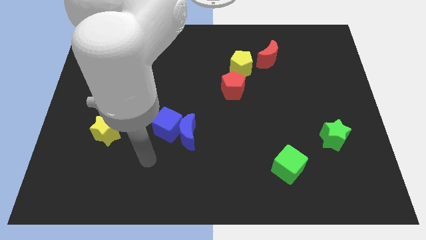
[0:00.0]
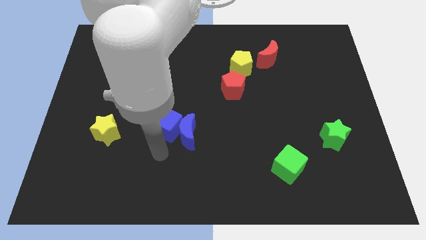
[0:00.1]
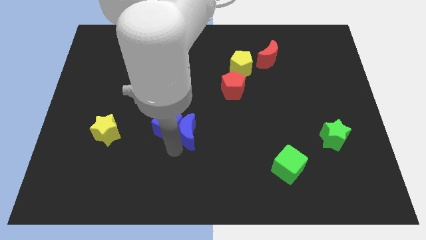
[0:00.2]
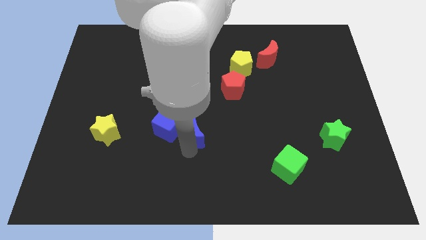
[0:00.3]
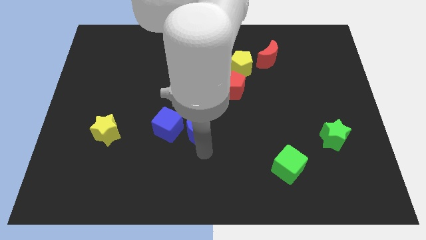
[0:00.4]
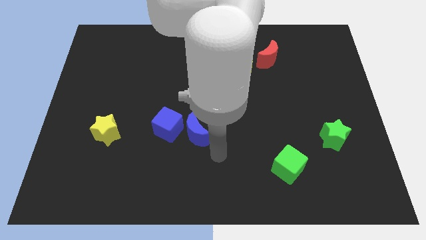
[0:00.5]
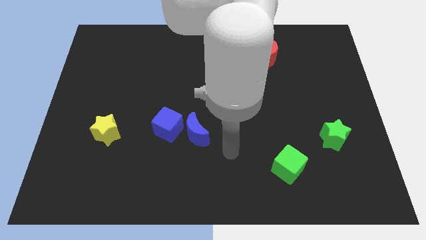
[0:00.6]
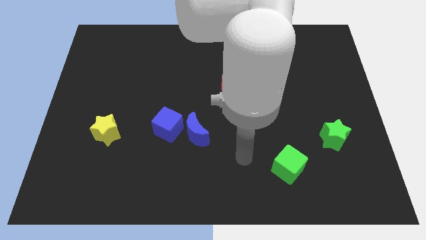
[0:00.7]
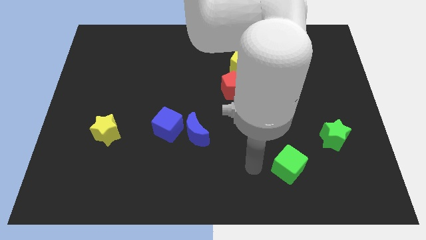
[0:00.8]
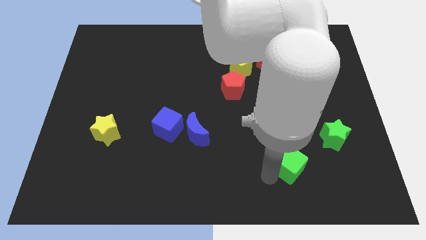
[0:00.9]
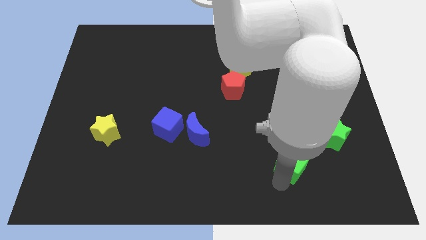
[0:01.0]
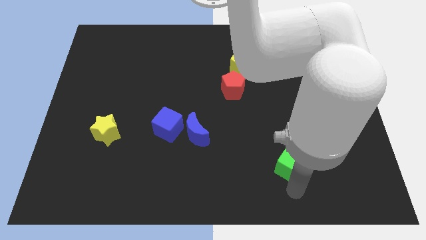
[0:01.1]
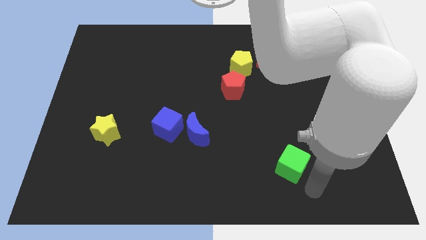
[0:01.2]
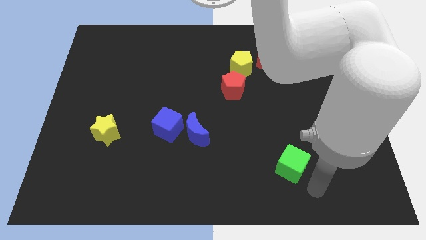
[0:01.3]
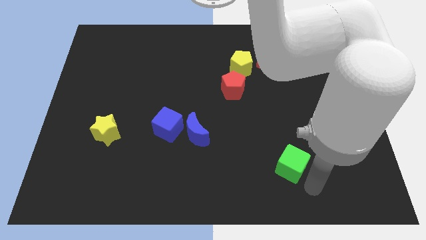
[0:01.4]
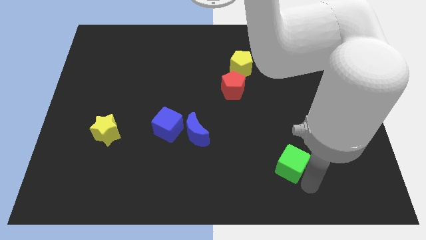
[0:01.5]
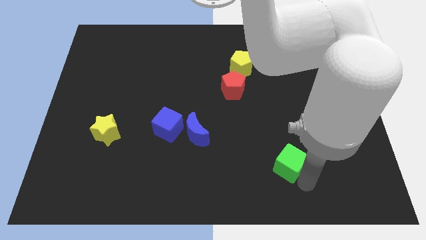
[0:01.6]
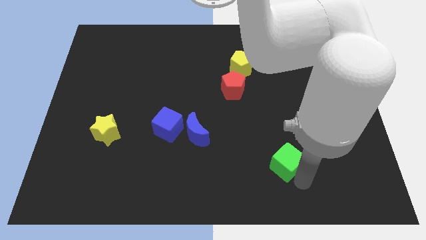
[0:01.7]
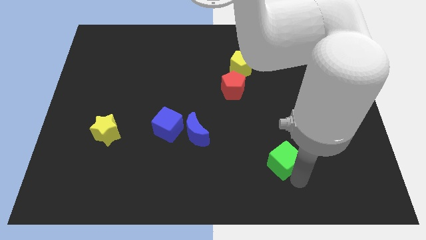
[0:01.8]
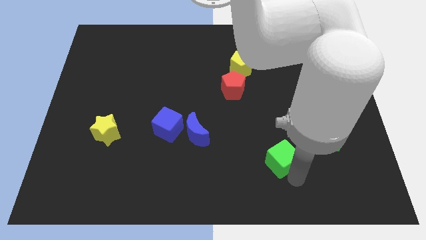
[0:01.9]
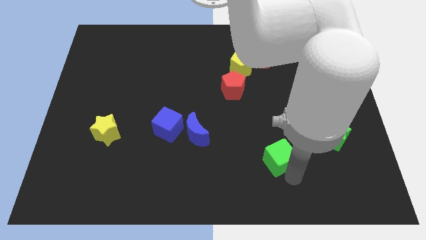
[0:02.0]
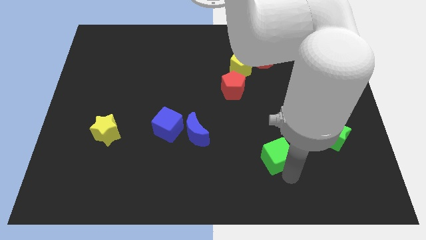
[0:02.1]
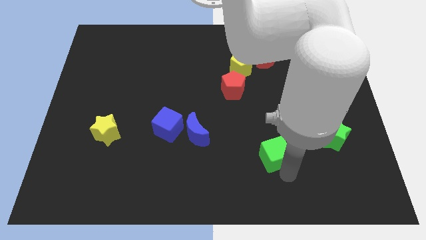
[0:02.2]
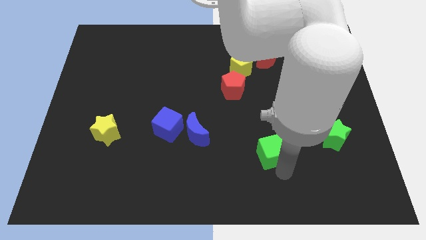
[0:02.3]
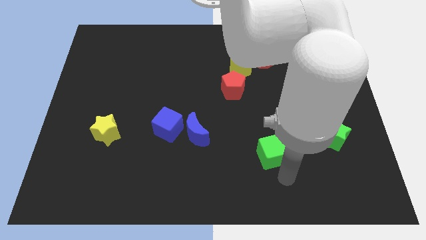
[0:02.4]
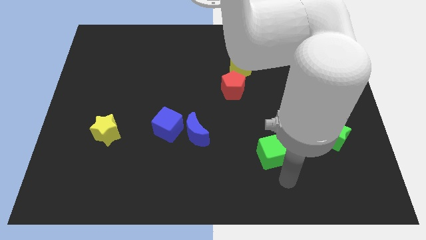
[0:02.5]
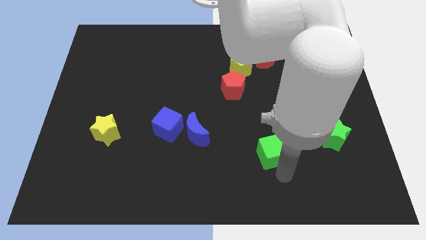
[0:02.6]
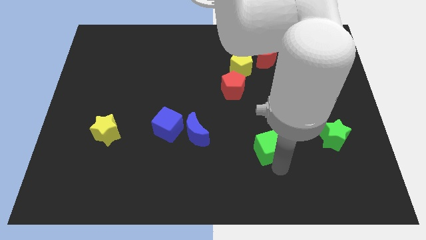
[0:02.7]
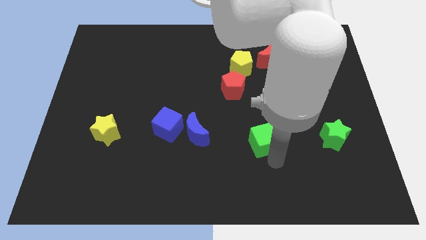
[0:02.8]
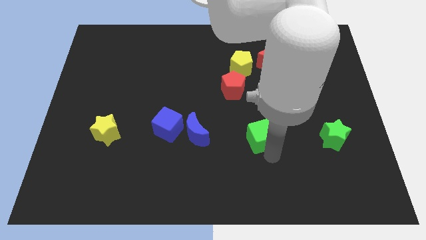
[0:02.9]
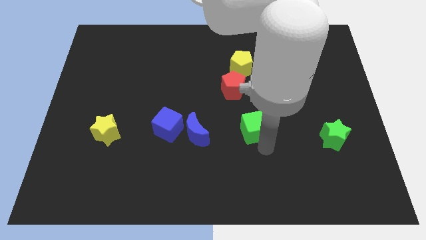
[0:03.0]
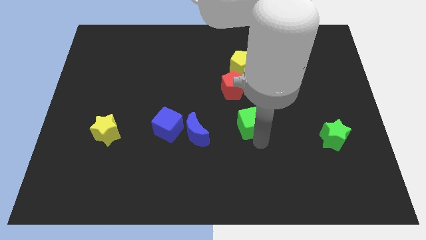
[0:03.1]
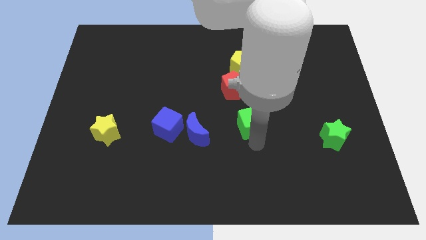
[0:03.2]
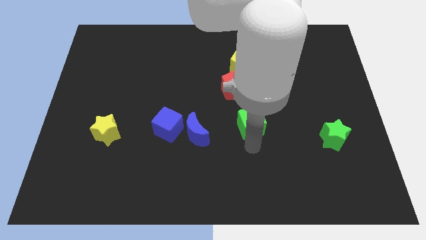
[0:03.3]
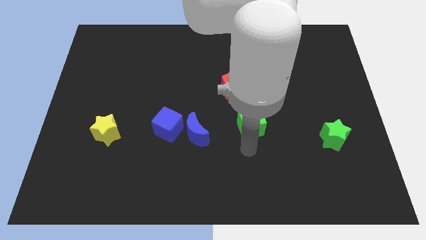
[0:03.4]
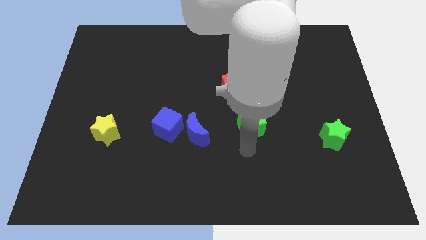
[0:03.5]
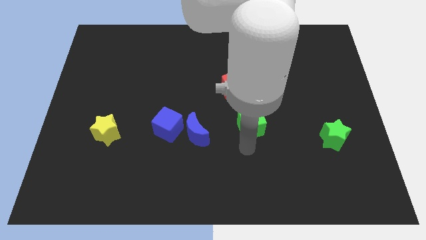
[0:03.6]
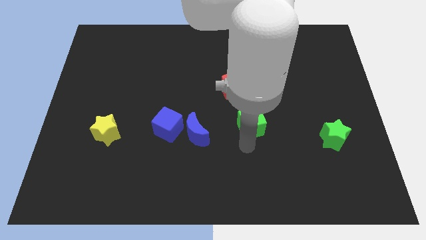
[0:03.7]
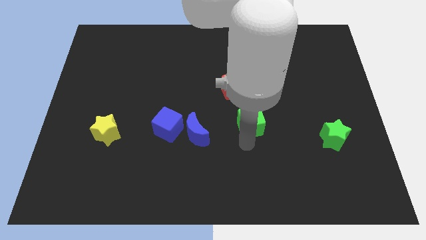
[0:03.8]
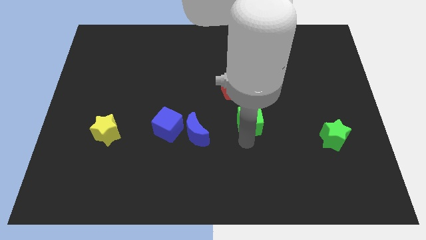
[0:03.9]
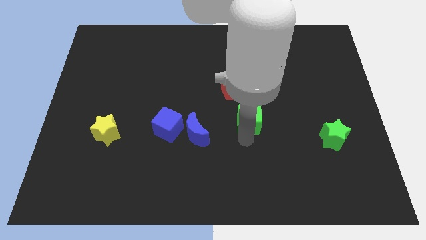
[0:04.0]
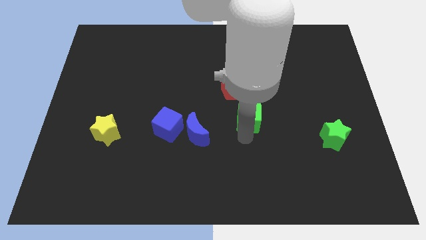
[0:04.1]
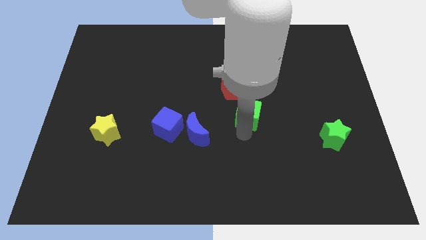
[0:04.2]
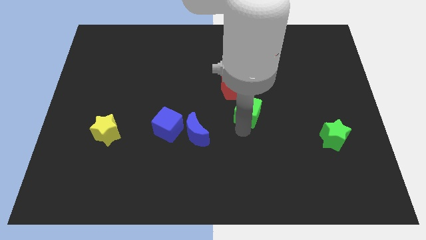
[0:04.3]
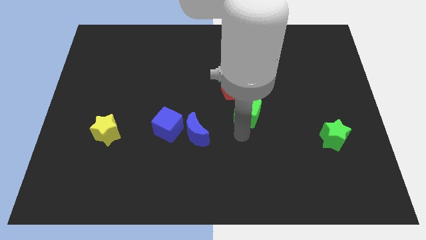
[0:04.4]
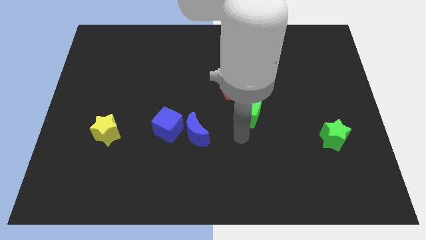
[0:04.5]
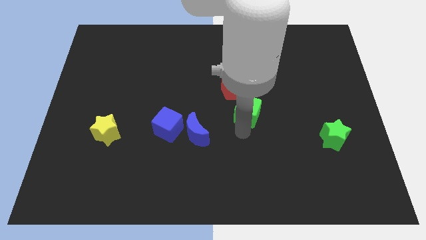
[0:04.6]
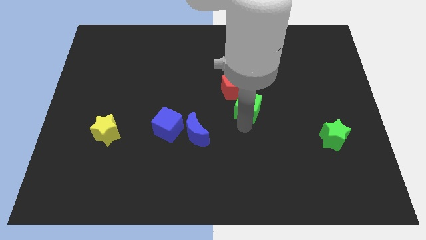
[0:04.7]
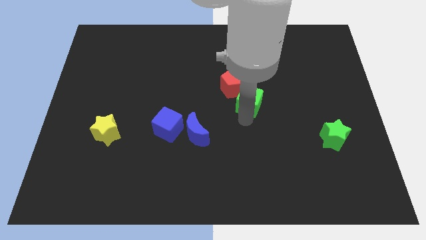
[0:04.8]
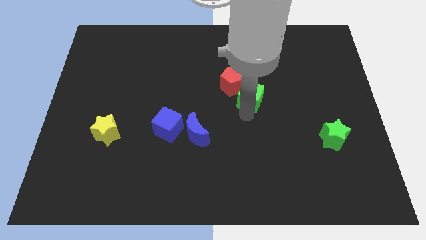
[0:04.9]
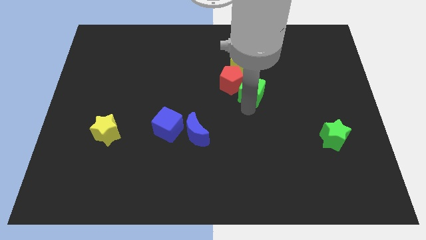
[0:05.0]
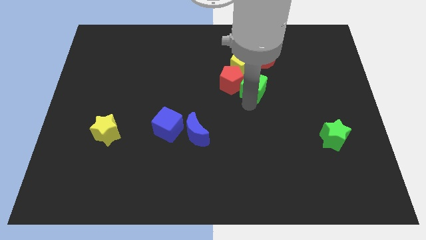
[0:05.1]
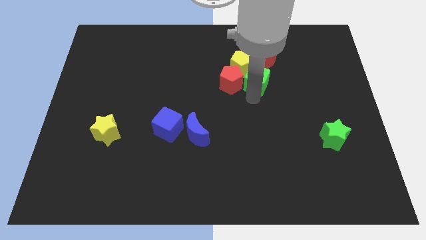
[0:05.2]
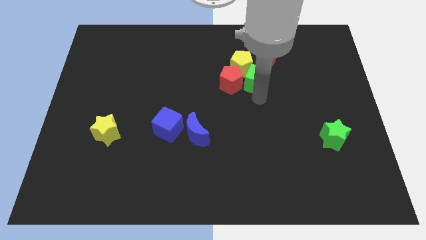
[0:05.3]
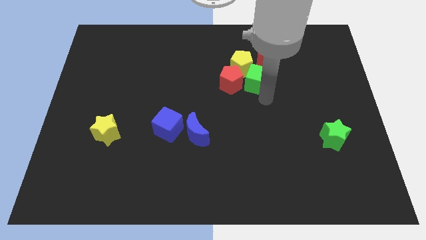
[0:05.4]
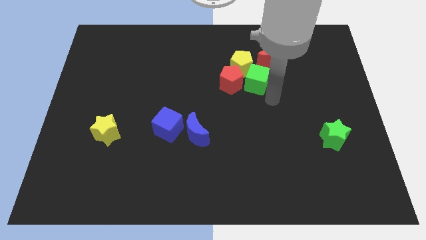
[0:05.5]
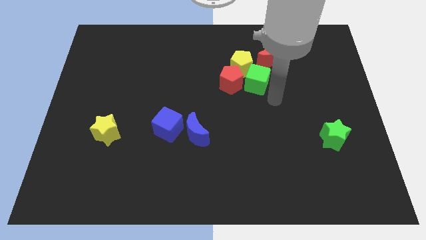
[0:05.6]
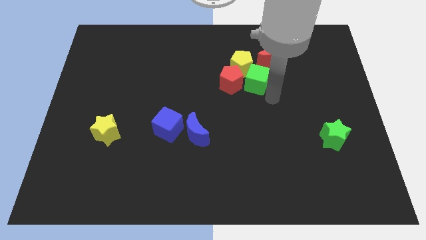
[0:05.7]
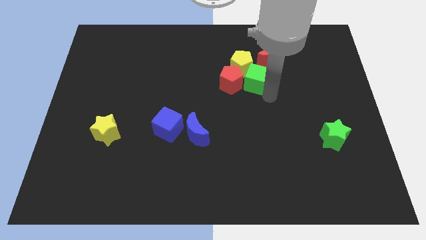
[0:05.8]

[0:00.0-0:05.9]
slide the green cube towards the yellow pentagon
